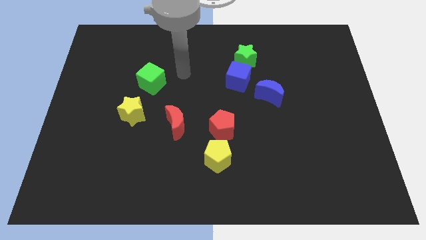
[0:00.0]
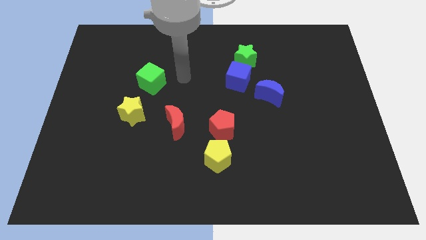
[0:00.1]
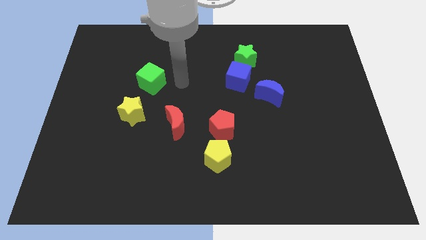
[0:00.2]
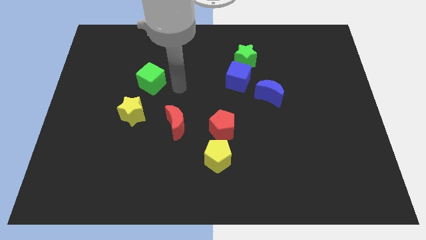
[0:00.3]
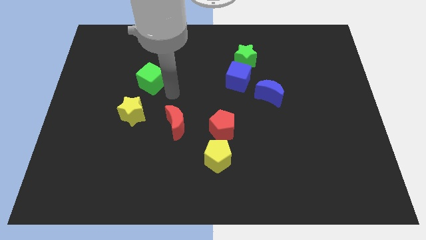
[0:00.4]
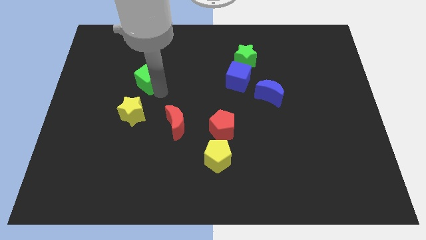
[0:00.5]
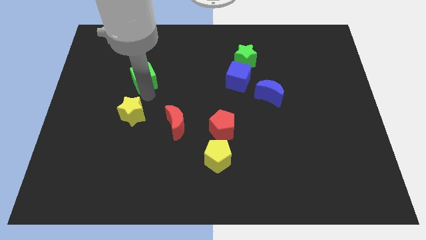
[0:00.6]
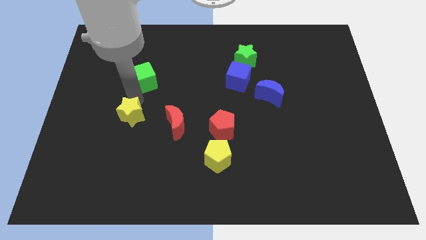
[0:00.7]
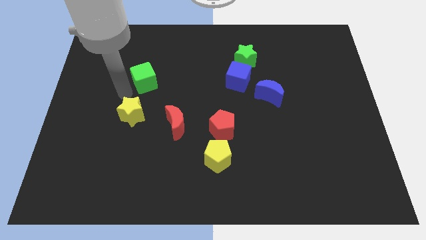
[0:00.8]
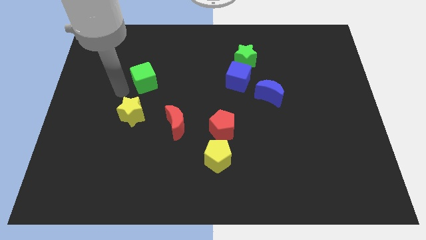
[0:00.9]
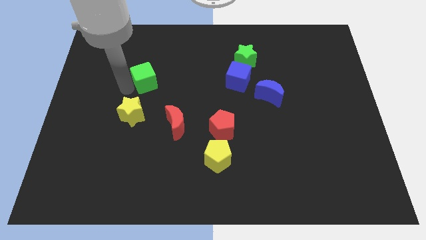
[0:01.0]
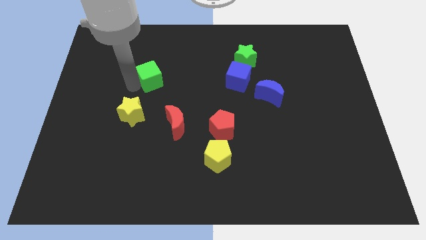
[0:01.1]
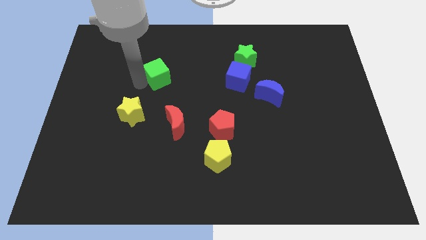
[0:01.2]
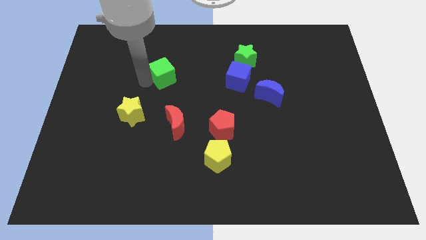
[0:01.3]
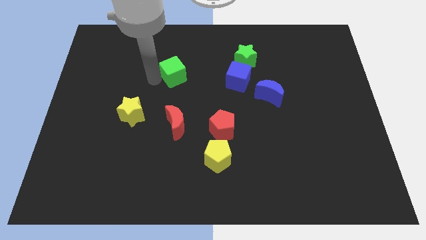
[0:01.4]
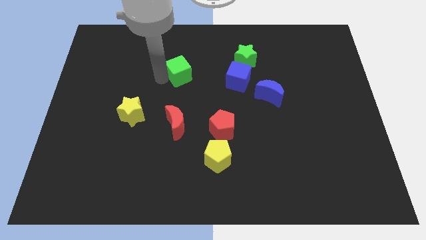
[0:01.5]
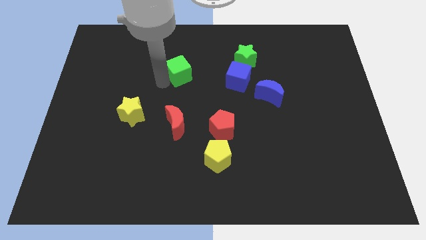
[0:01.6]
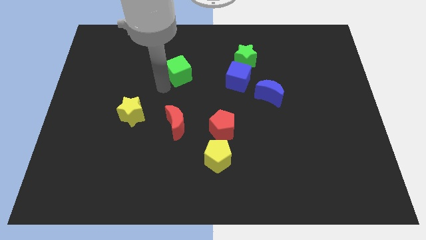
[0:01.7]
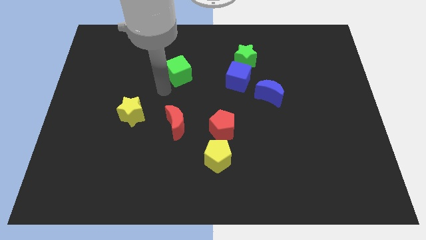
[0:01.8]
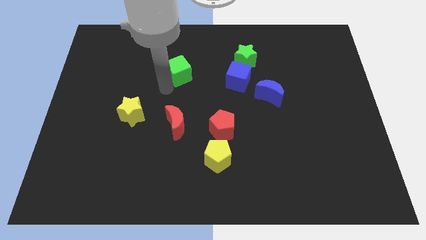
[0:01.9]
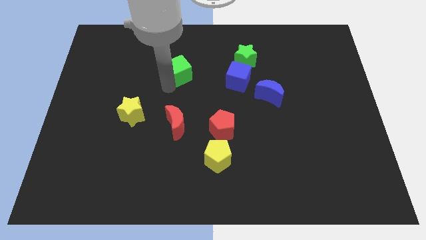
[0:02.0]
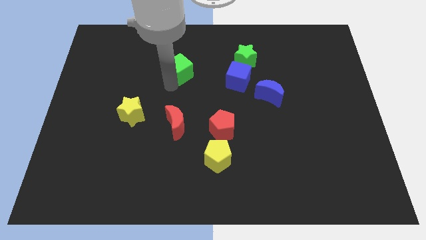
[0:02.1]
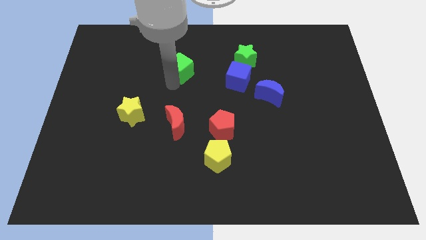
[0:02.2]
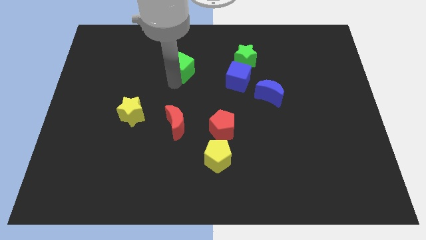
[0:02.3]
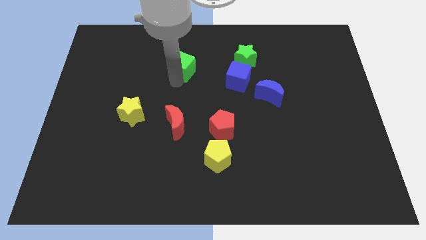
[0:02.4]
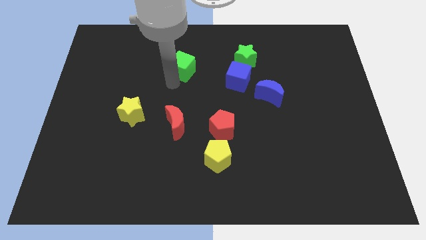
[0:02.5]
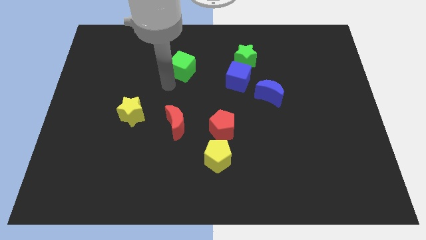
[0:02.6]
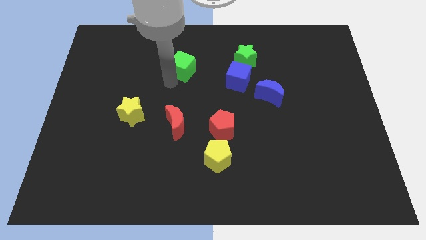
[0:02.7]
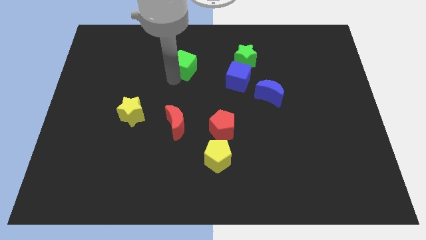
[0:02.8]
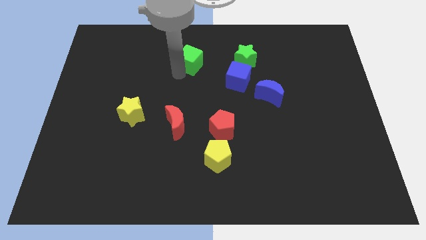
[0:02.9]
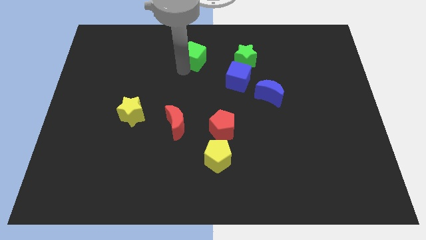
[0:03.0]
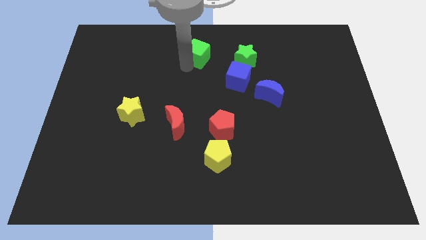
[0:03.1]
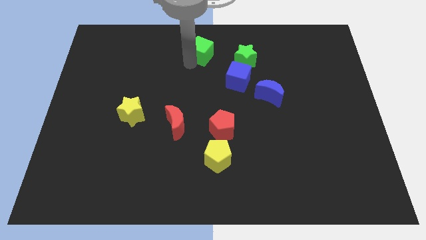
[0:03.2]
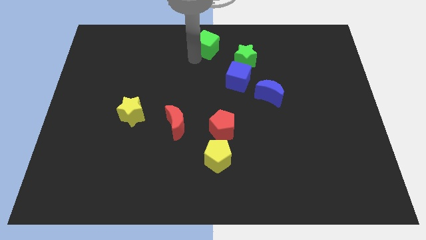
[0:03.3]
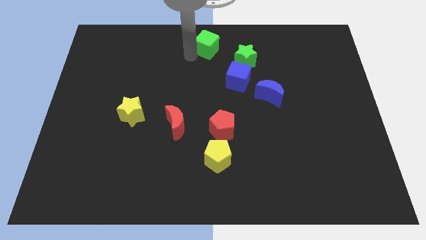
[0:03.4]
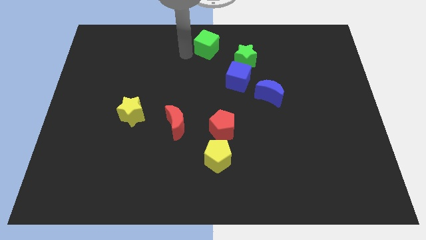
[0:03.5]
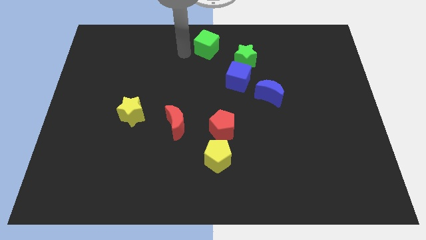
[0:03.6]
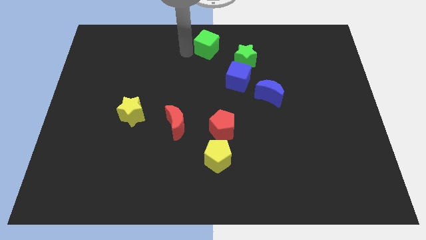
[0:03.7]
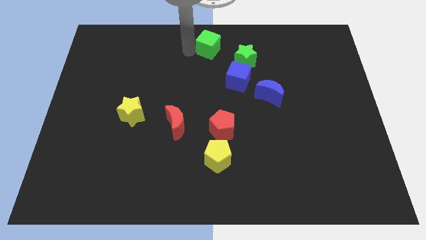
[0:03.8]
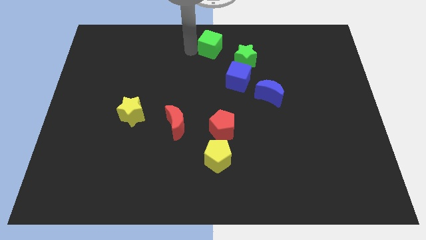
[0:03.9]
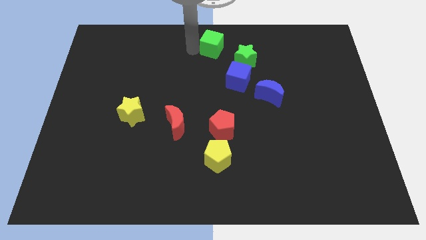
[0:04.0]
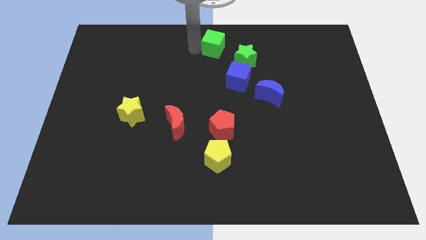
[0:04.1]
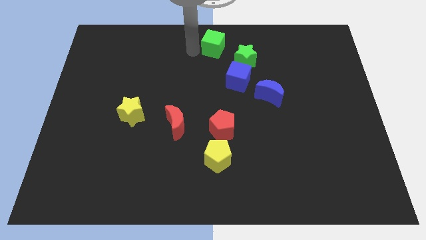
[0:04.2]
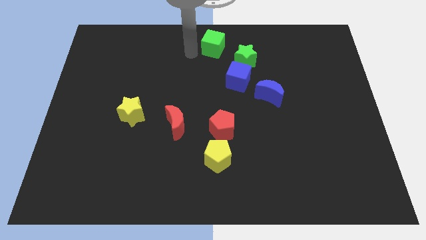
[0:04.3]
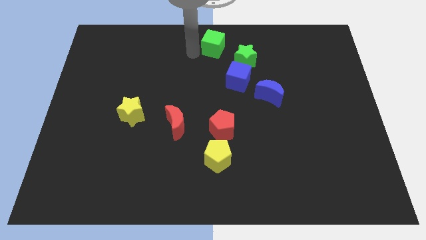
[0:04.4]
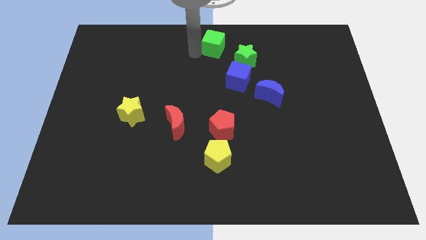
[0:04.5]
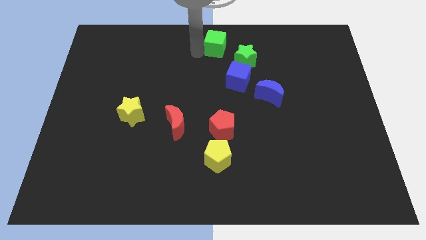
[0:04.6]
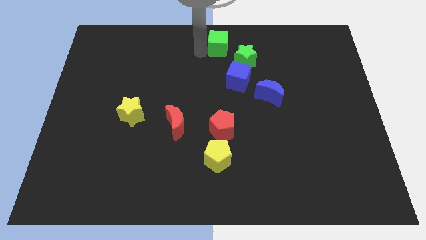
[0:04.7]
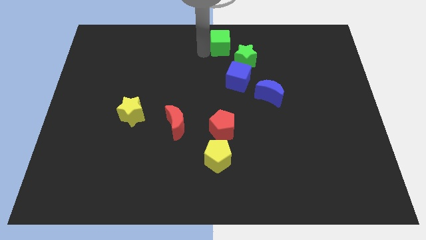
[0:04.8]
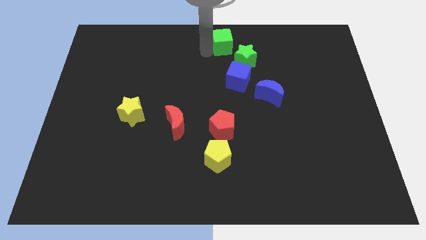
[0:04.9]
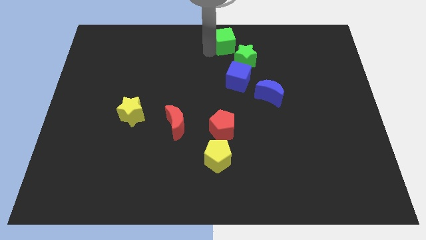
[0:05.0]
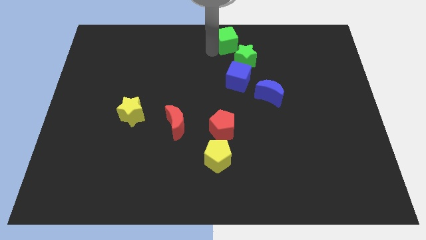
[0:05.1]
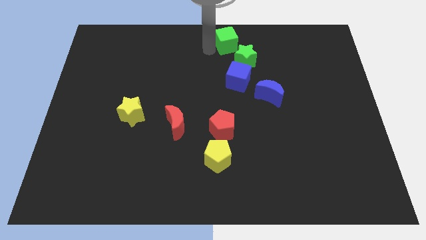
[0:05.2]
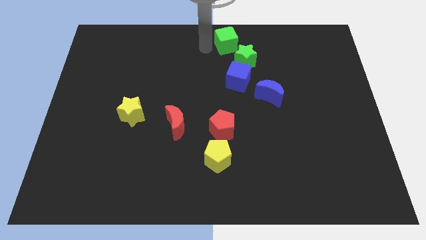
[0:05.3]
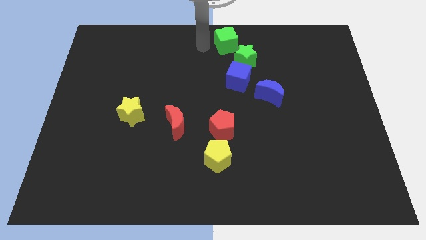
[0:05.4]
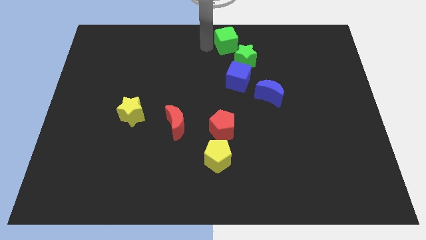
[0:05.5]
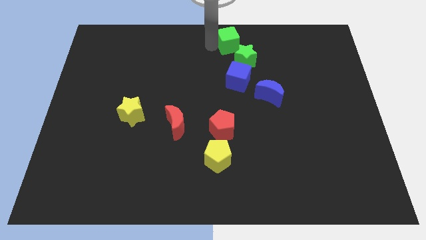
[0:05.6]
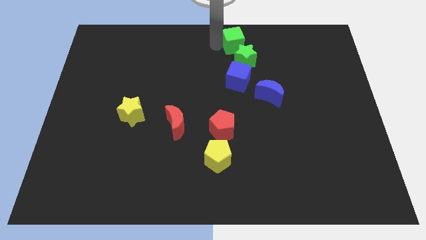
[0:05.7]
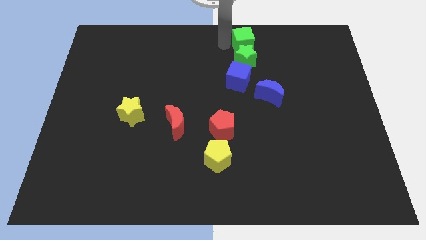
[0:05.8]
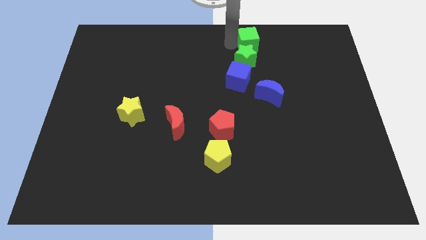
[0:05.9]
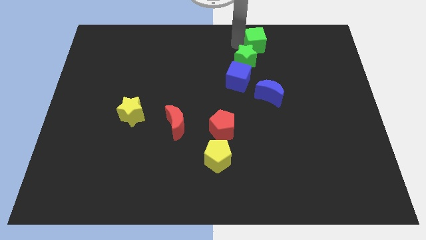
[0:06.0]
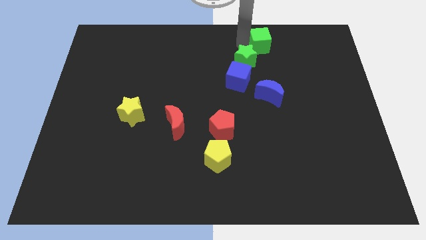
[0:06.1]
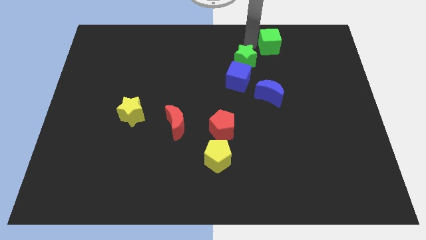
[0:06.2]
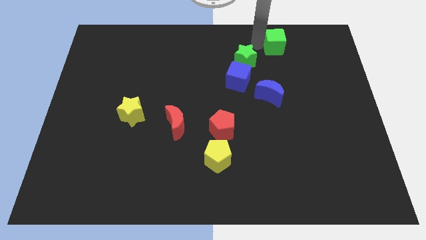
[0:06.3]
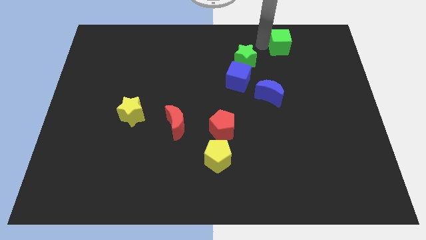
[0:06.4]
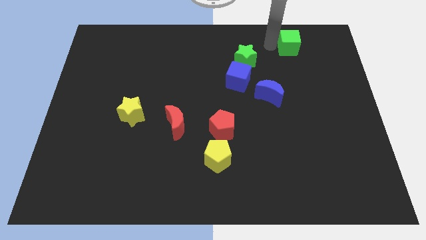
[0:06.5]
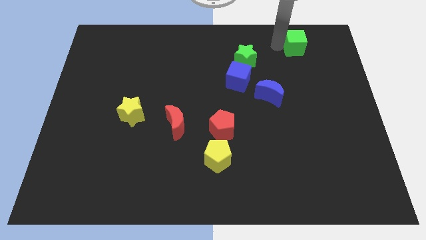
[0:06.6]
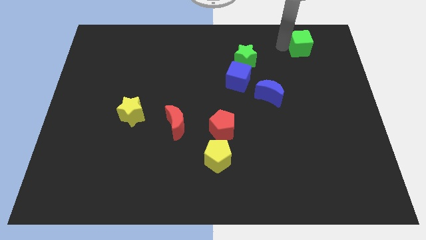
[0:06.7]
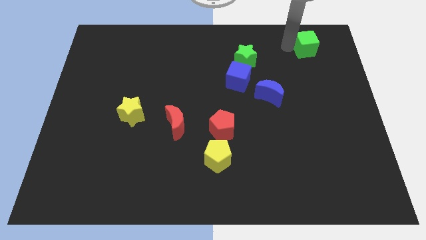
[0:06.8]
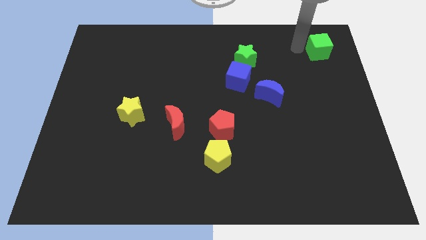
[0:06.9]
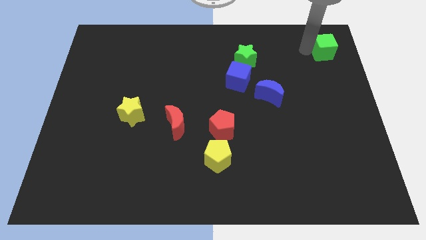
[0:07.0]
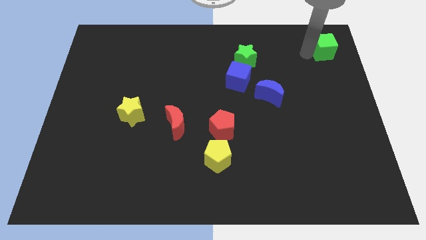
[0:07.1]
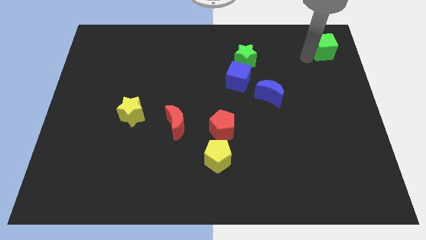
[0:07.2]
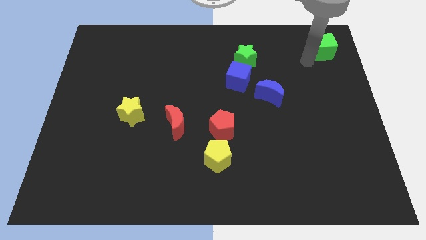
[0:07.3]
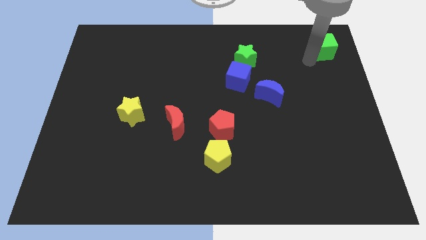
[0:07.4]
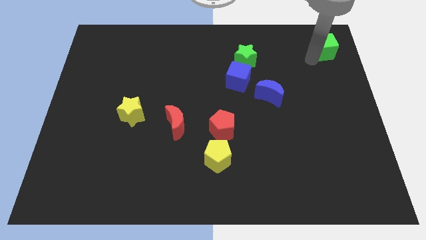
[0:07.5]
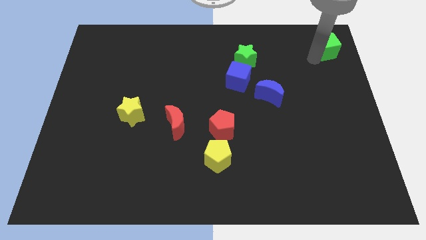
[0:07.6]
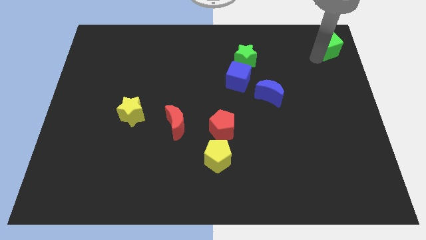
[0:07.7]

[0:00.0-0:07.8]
put the green cube to the top right
